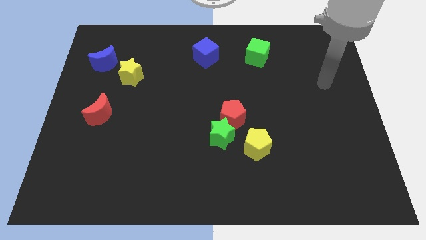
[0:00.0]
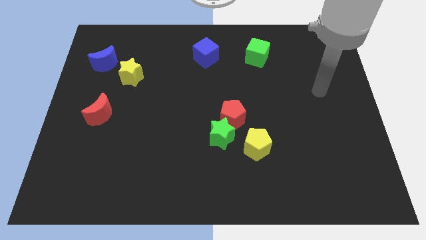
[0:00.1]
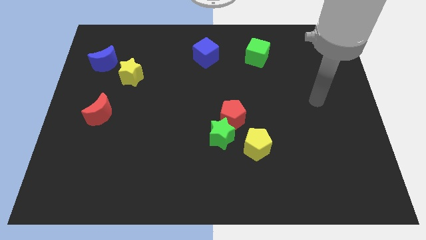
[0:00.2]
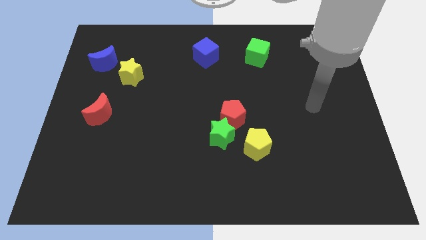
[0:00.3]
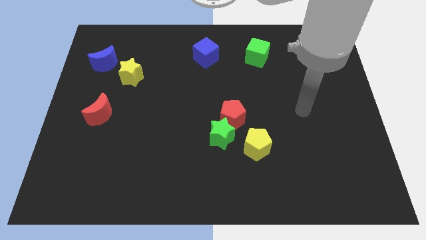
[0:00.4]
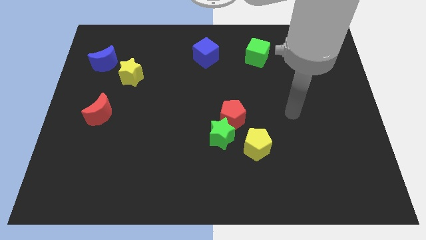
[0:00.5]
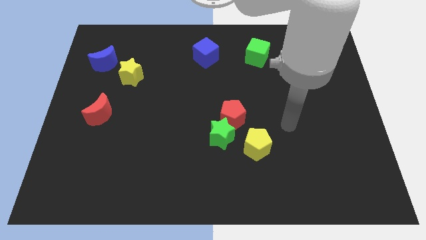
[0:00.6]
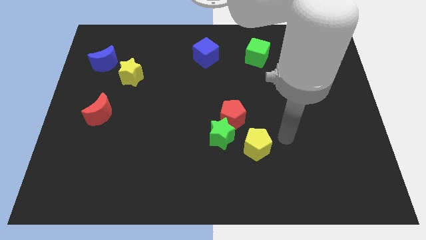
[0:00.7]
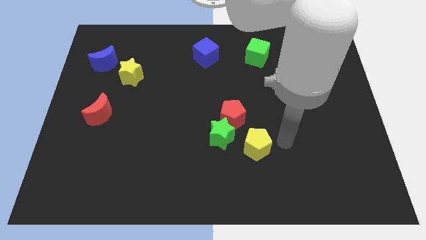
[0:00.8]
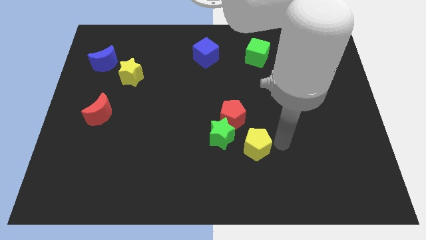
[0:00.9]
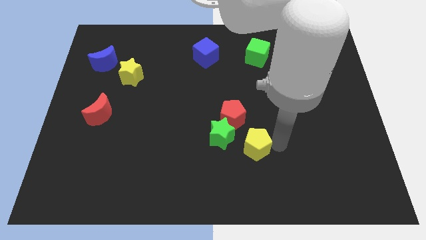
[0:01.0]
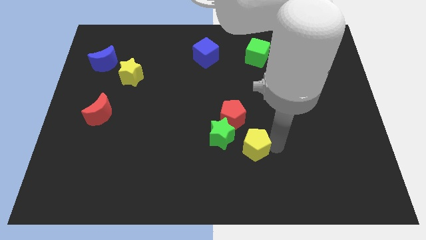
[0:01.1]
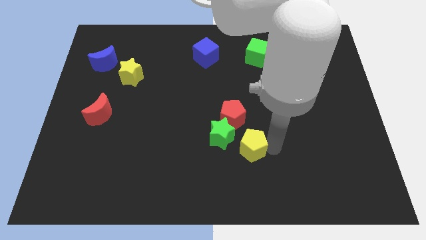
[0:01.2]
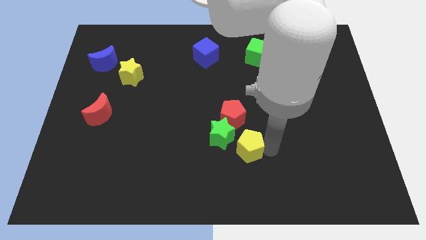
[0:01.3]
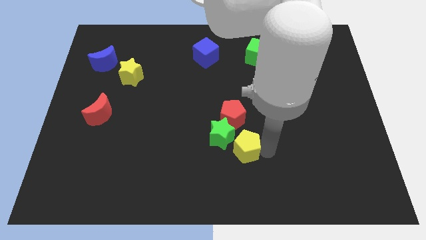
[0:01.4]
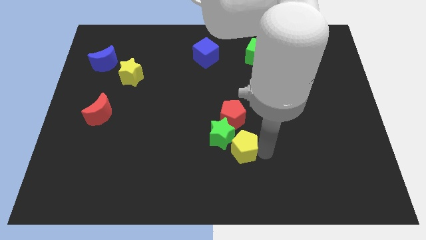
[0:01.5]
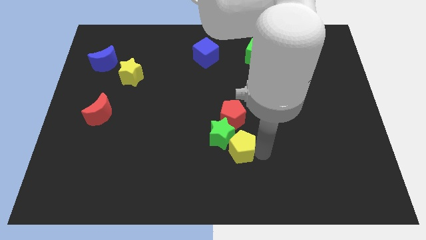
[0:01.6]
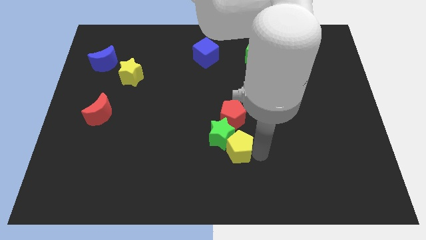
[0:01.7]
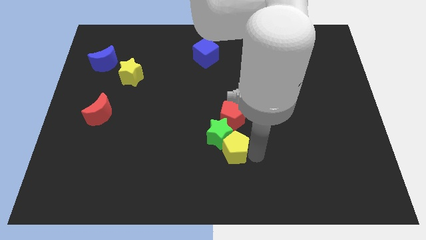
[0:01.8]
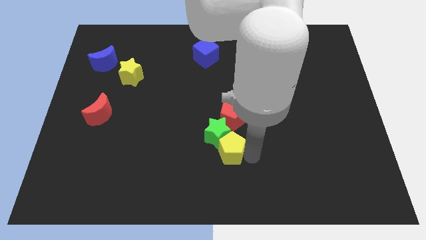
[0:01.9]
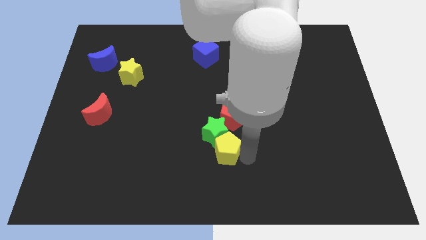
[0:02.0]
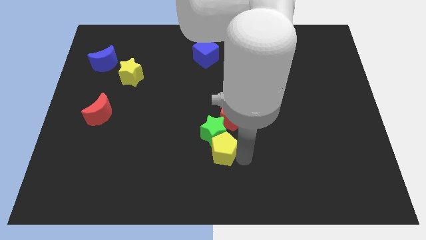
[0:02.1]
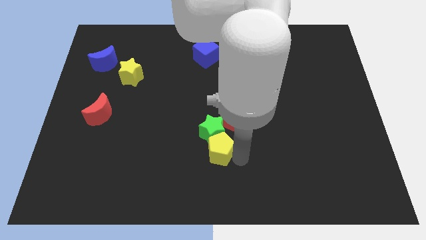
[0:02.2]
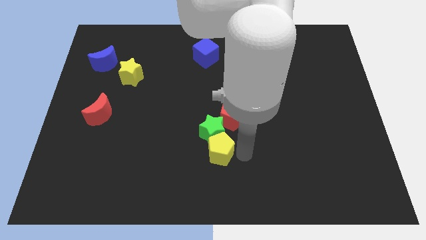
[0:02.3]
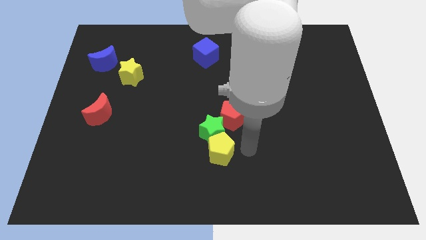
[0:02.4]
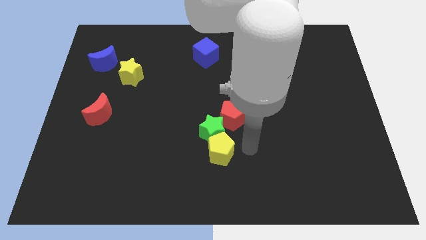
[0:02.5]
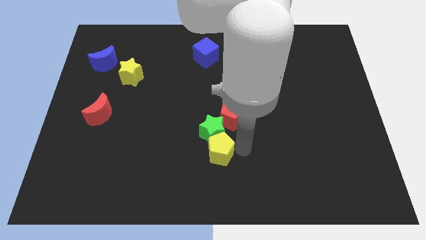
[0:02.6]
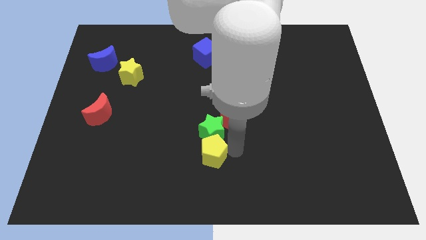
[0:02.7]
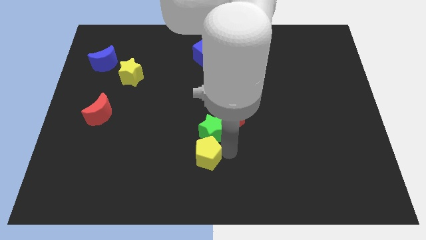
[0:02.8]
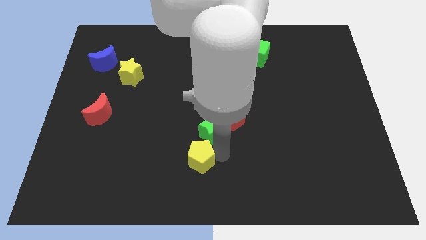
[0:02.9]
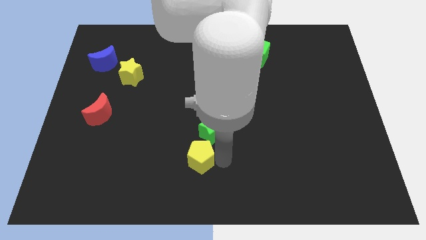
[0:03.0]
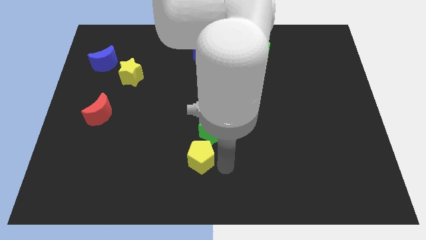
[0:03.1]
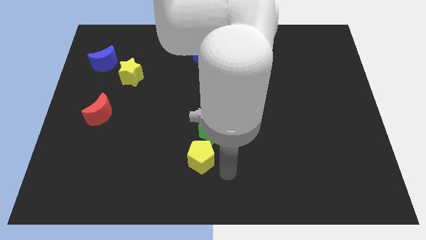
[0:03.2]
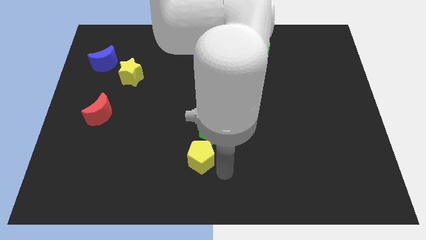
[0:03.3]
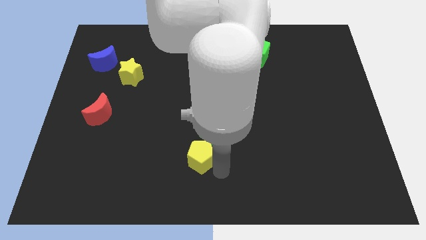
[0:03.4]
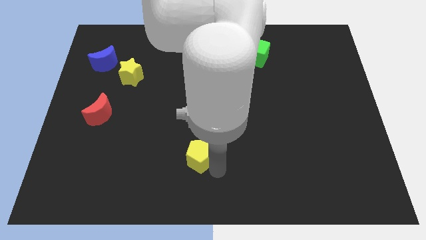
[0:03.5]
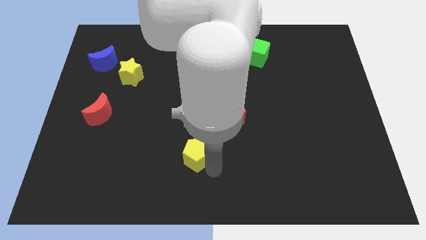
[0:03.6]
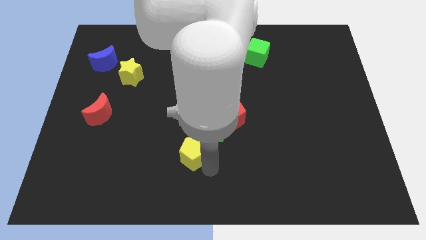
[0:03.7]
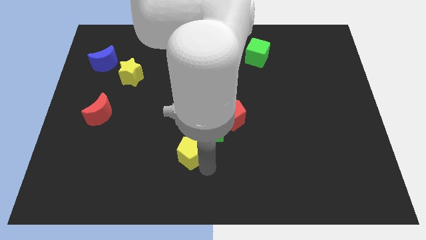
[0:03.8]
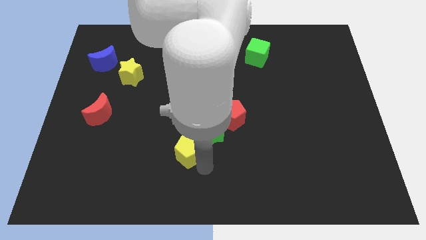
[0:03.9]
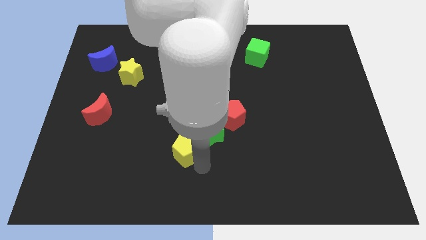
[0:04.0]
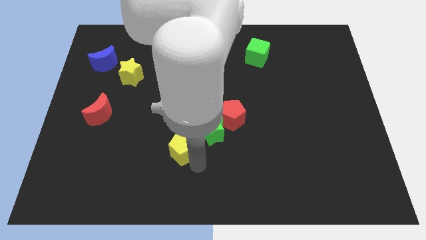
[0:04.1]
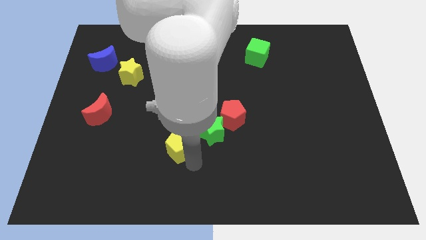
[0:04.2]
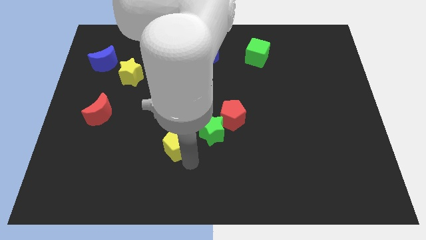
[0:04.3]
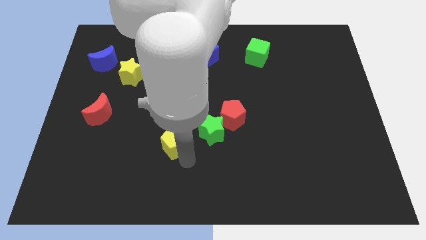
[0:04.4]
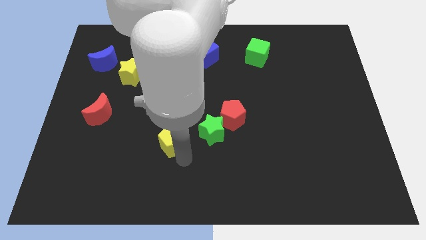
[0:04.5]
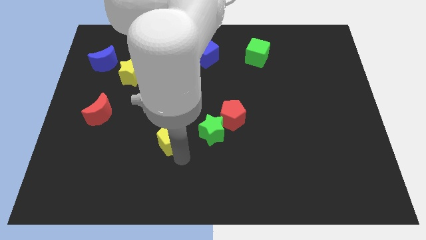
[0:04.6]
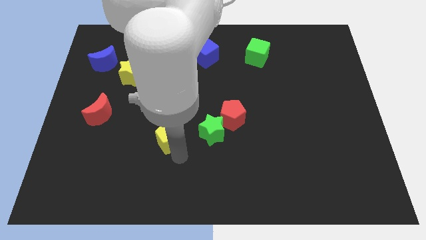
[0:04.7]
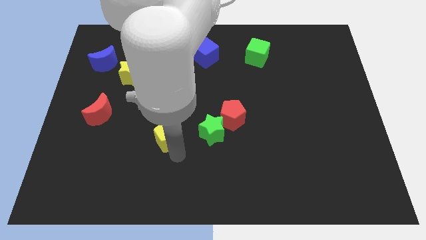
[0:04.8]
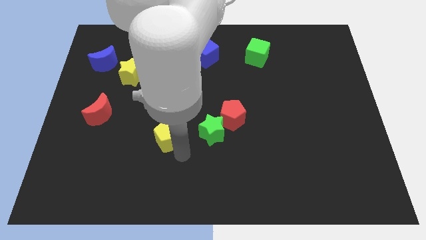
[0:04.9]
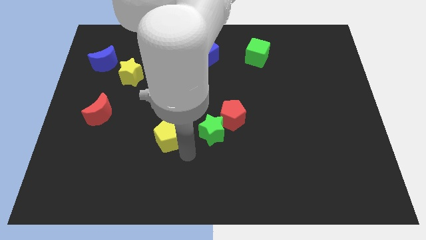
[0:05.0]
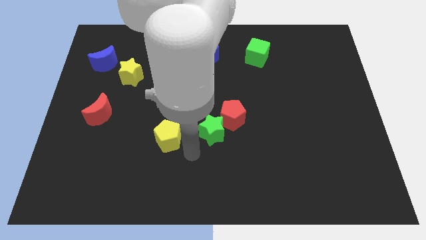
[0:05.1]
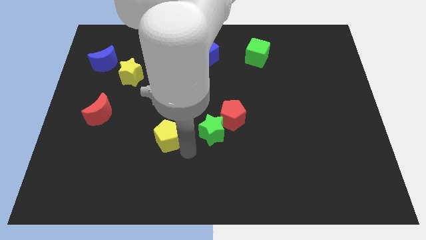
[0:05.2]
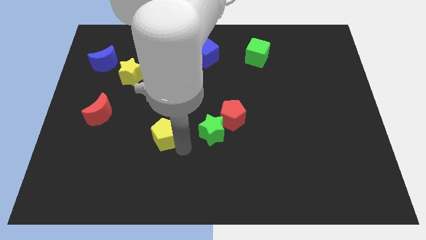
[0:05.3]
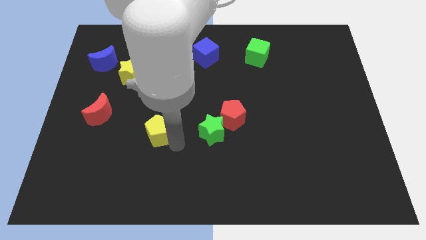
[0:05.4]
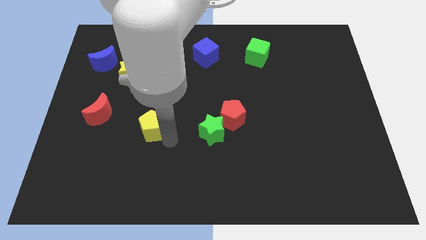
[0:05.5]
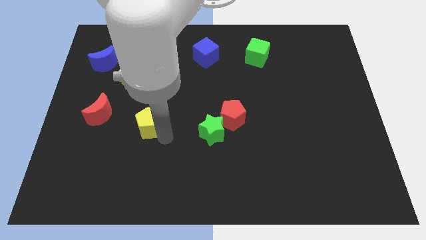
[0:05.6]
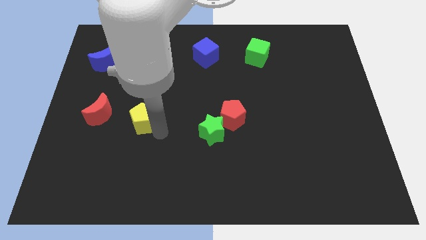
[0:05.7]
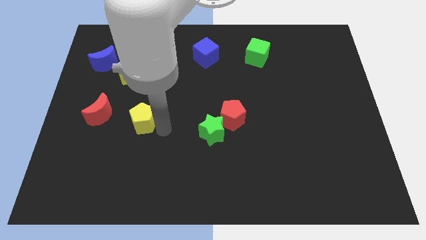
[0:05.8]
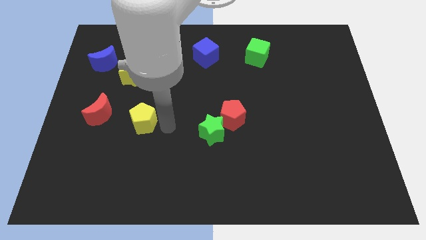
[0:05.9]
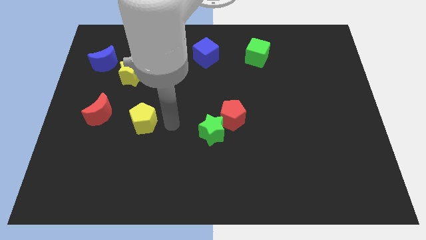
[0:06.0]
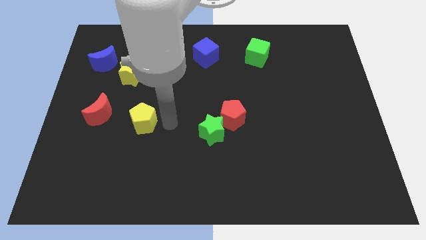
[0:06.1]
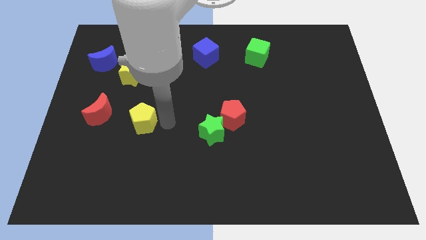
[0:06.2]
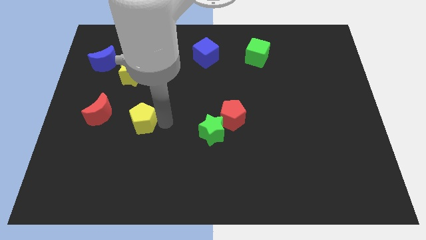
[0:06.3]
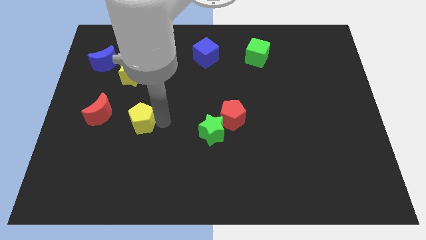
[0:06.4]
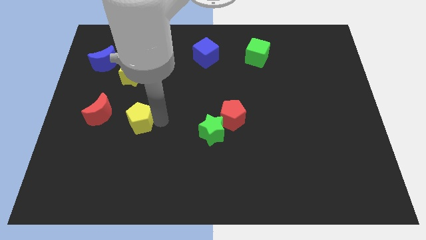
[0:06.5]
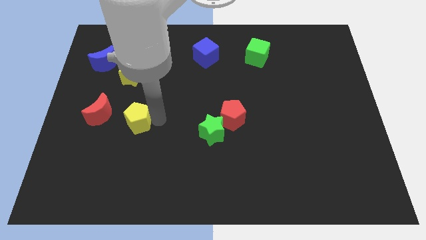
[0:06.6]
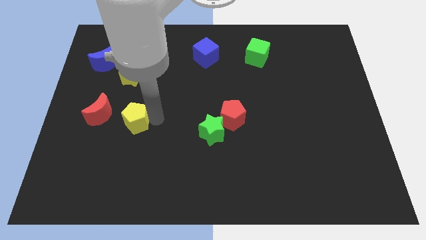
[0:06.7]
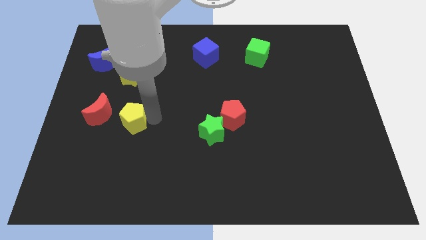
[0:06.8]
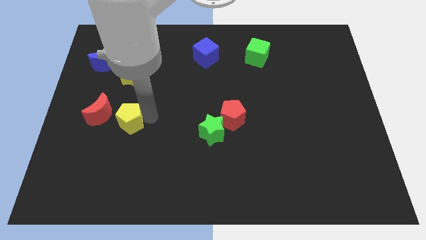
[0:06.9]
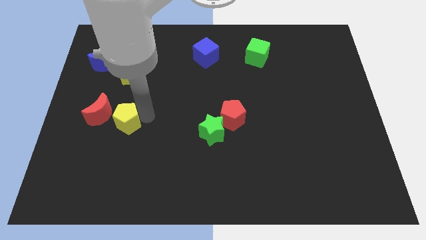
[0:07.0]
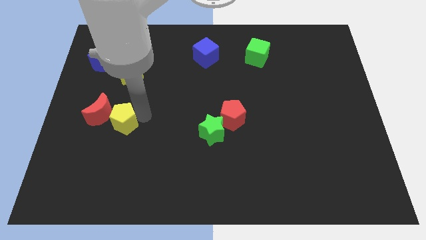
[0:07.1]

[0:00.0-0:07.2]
move the yellow pentagon next to the red moon

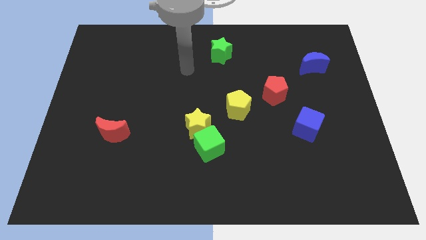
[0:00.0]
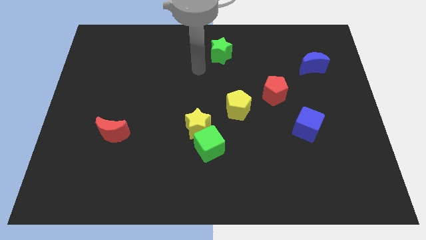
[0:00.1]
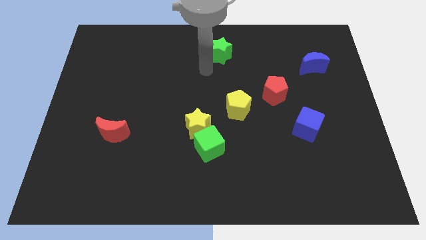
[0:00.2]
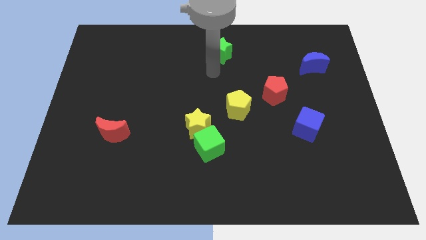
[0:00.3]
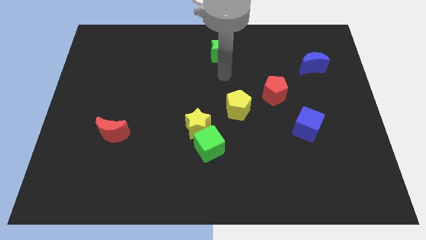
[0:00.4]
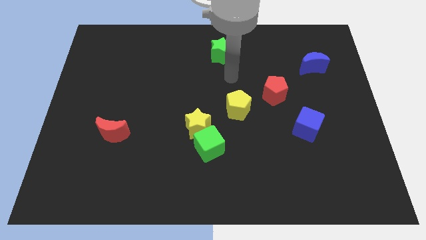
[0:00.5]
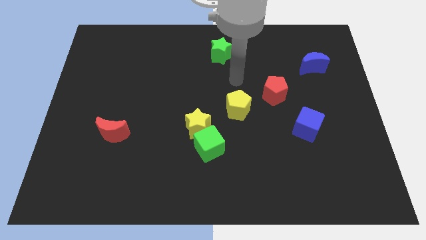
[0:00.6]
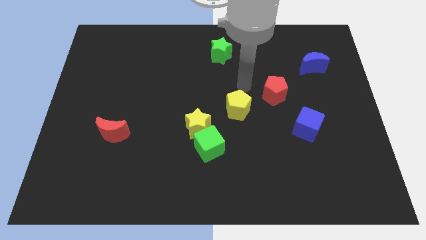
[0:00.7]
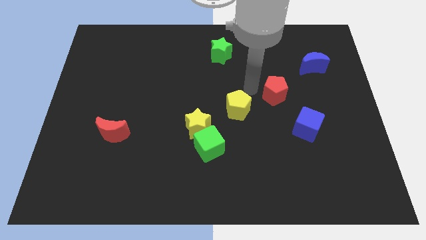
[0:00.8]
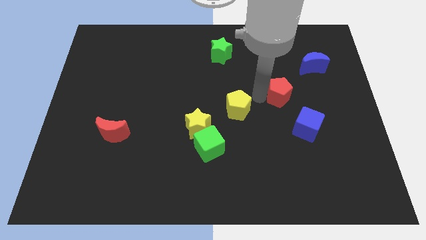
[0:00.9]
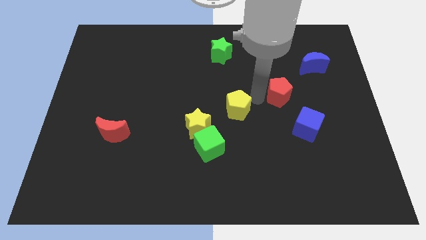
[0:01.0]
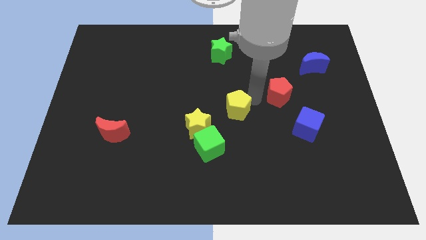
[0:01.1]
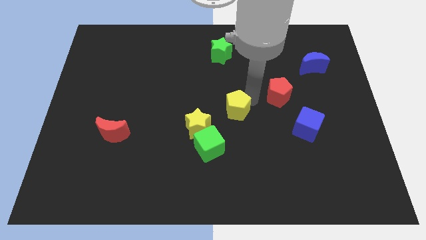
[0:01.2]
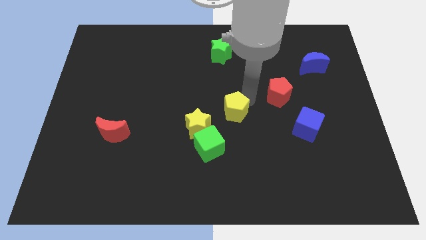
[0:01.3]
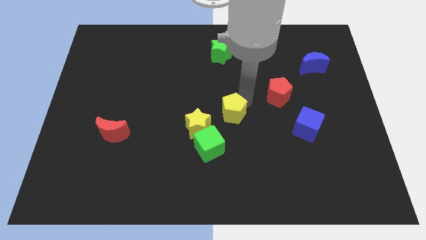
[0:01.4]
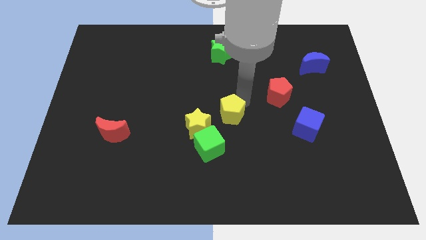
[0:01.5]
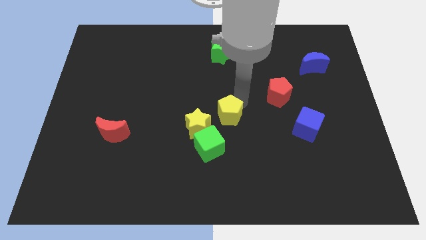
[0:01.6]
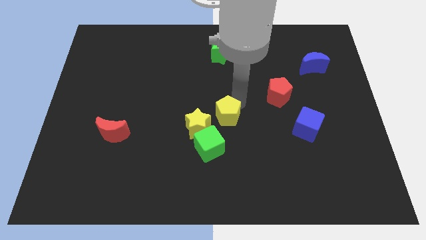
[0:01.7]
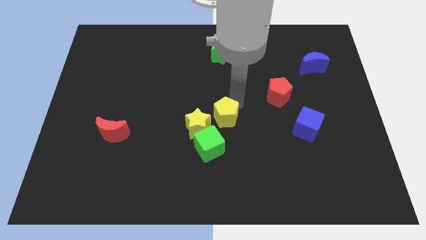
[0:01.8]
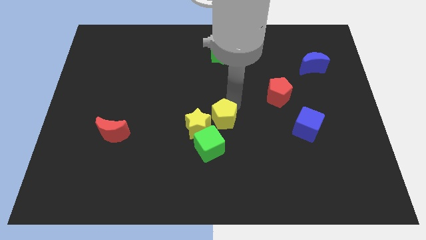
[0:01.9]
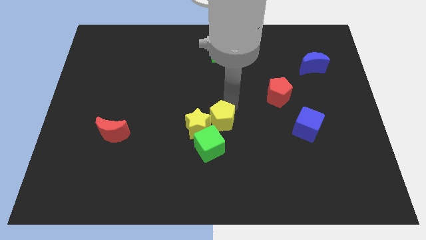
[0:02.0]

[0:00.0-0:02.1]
push the yellow pentagon to the yellow star
